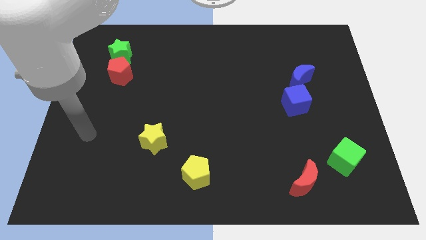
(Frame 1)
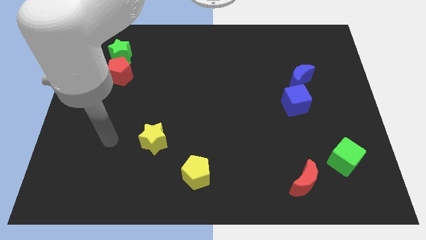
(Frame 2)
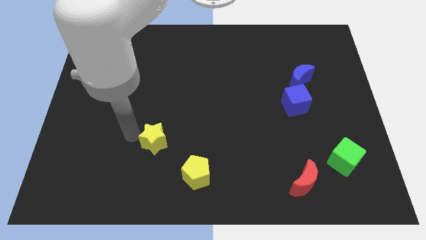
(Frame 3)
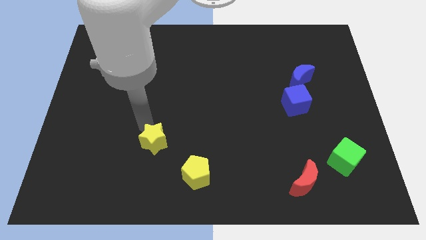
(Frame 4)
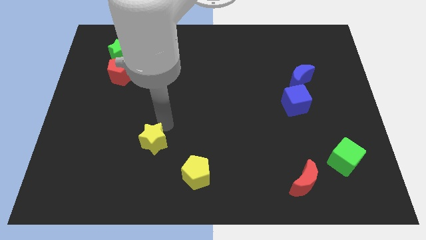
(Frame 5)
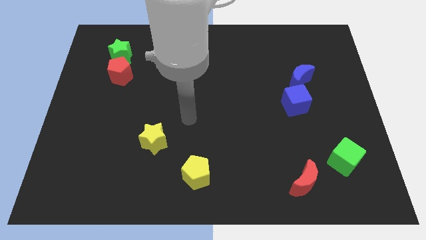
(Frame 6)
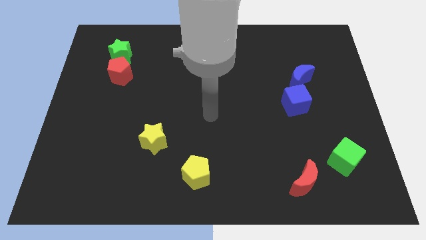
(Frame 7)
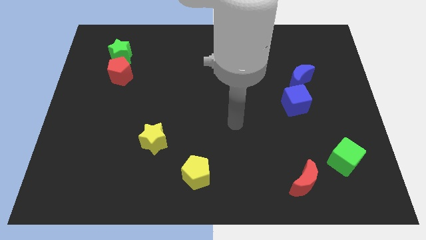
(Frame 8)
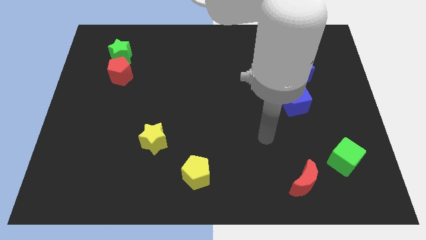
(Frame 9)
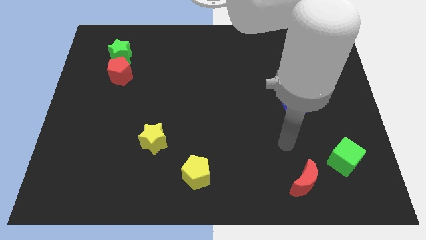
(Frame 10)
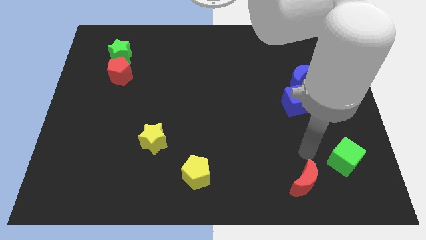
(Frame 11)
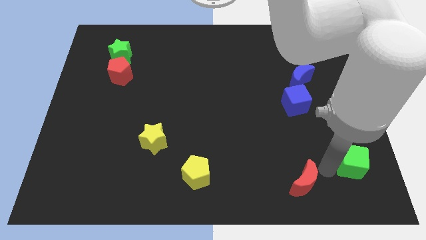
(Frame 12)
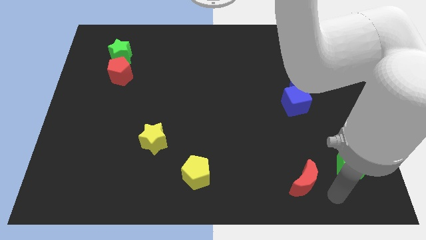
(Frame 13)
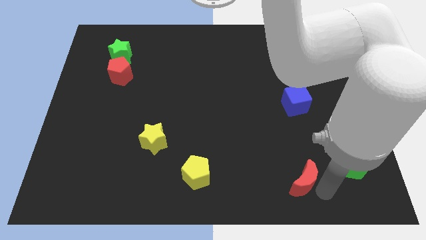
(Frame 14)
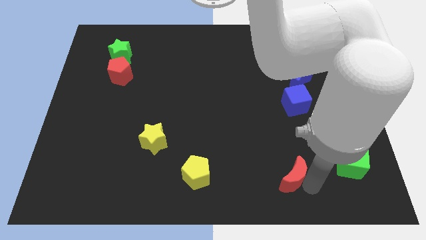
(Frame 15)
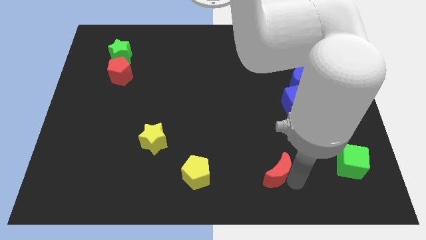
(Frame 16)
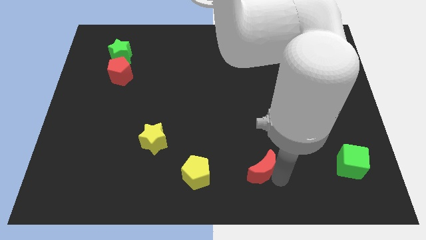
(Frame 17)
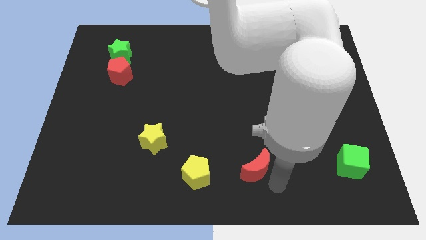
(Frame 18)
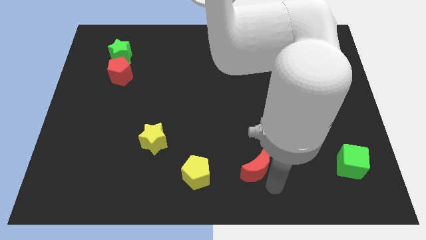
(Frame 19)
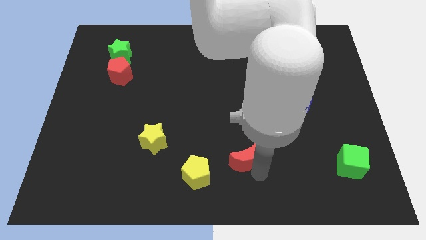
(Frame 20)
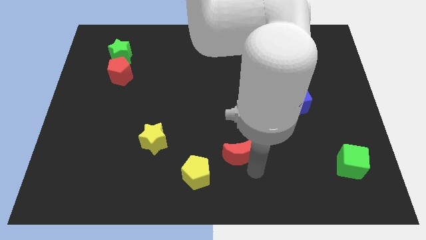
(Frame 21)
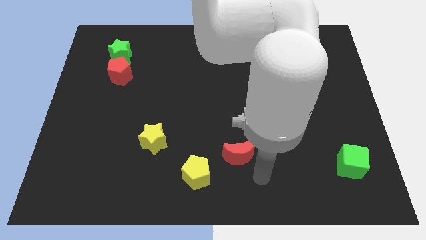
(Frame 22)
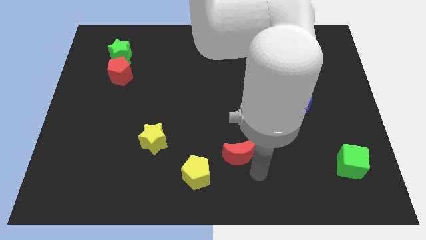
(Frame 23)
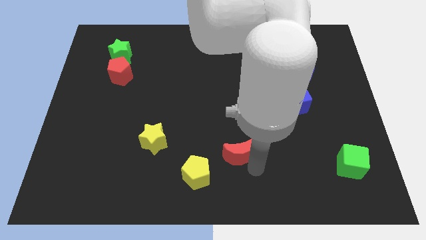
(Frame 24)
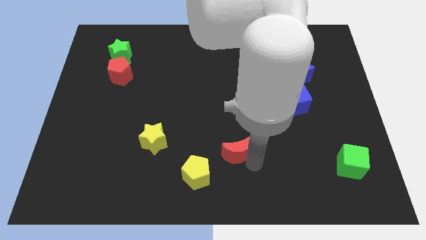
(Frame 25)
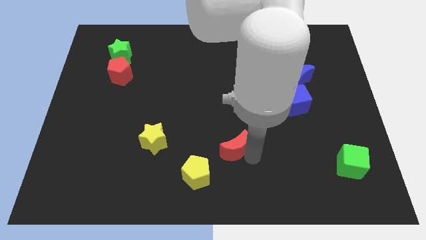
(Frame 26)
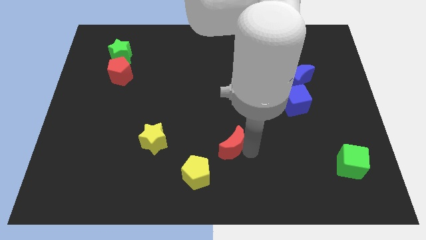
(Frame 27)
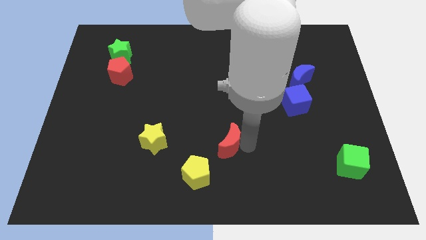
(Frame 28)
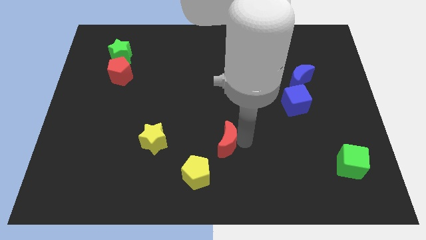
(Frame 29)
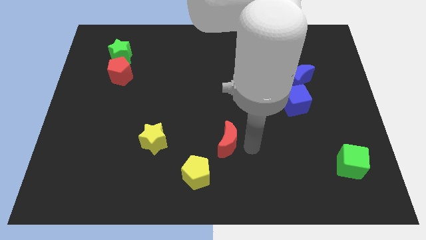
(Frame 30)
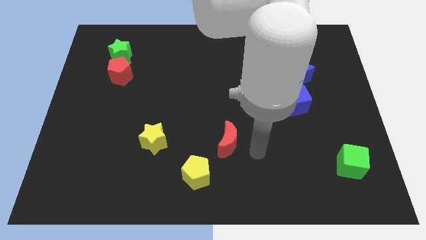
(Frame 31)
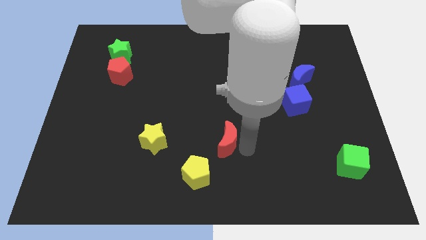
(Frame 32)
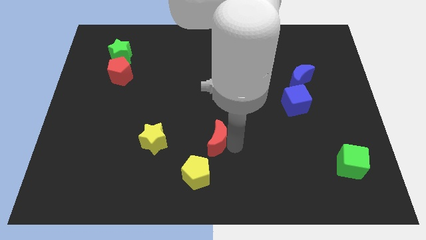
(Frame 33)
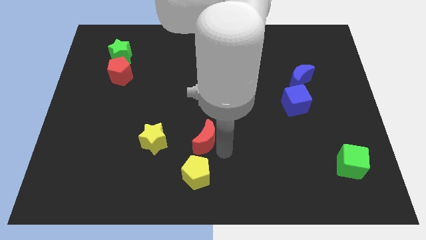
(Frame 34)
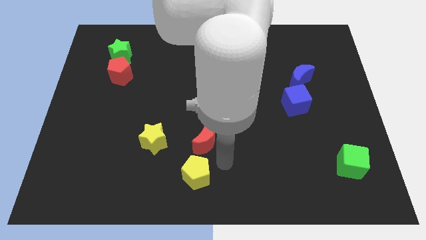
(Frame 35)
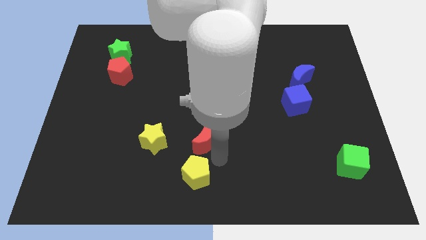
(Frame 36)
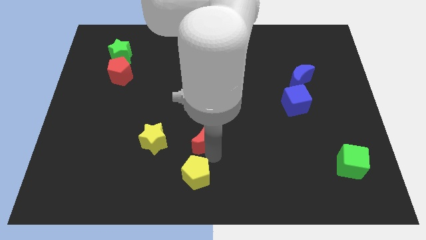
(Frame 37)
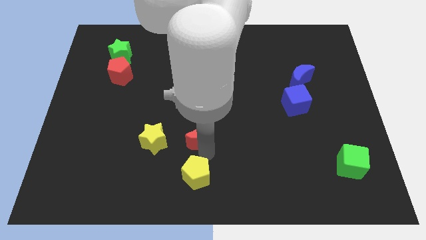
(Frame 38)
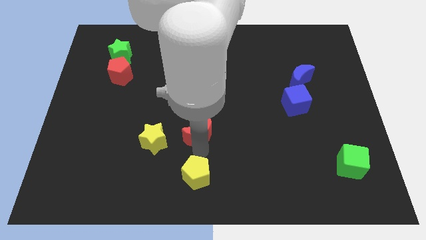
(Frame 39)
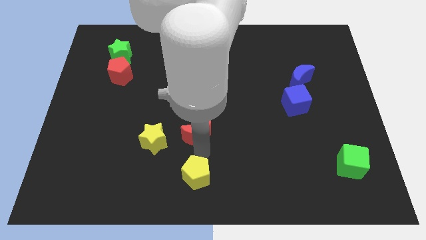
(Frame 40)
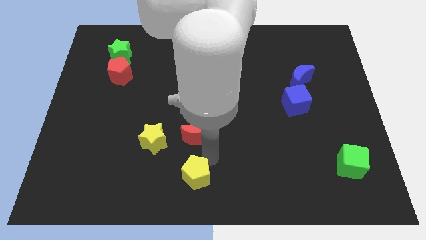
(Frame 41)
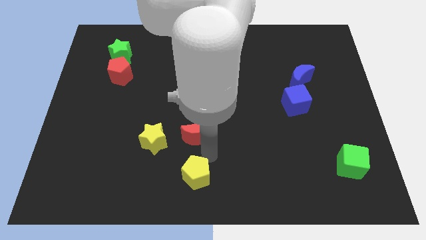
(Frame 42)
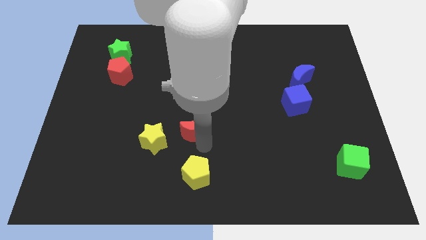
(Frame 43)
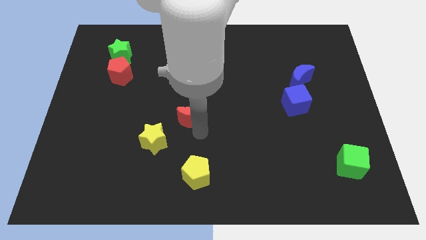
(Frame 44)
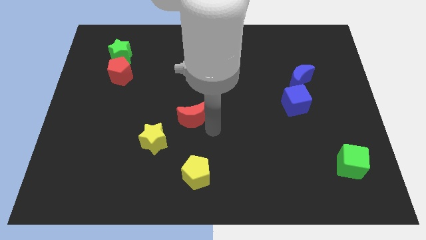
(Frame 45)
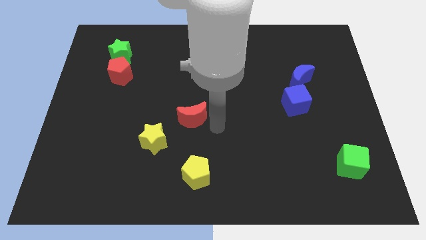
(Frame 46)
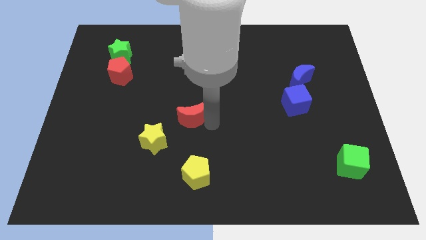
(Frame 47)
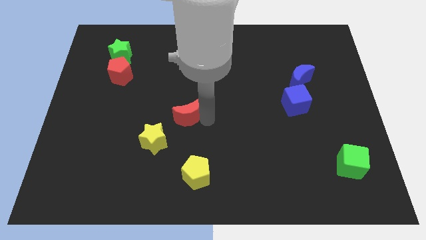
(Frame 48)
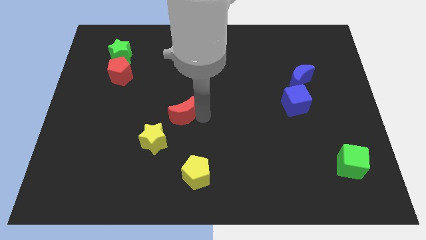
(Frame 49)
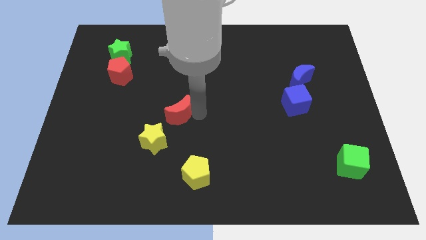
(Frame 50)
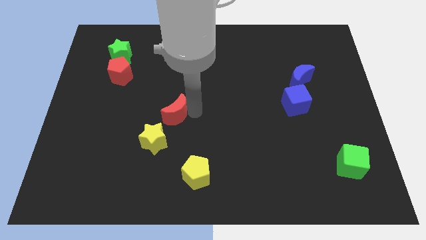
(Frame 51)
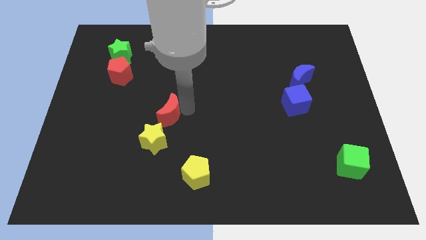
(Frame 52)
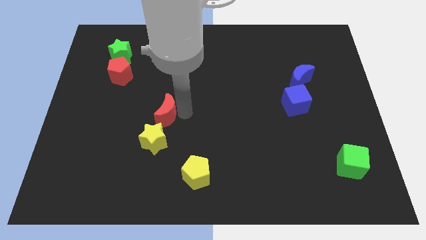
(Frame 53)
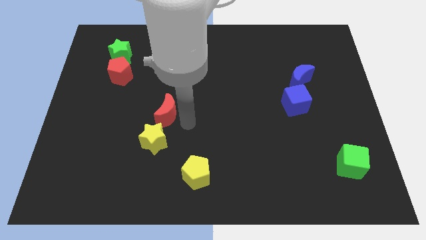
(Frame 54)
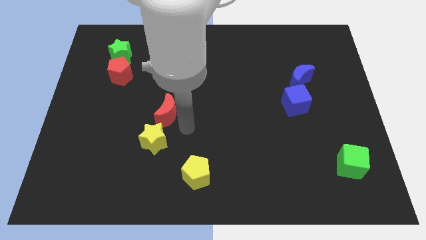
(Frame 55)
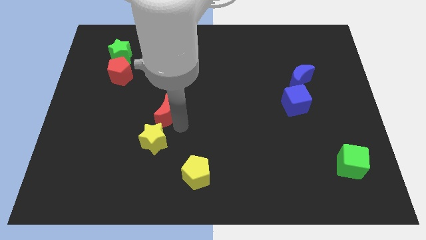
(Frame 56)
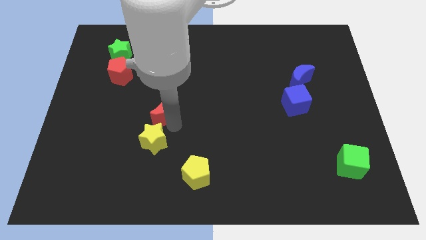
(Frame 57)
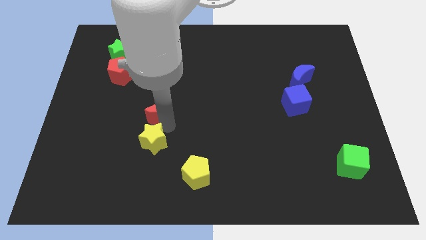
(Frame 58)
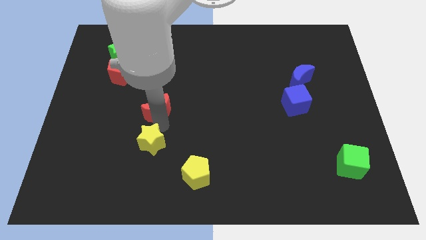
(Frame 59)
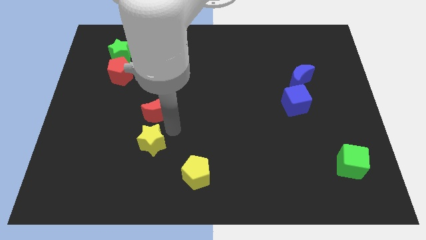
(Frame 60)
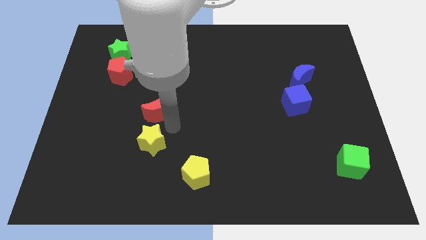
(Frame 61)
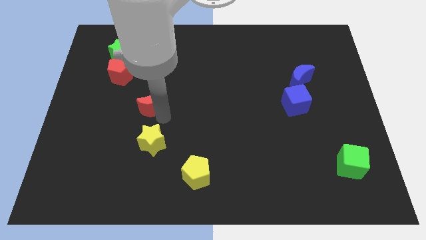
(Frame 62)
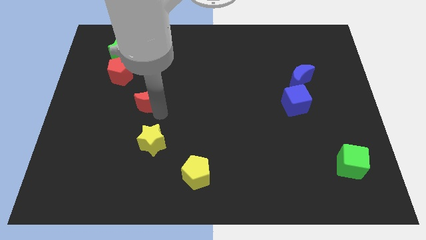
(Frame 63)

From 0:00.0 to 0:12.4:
put the red moon to the bottom right of the red pentagon
